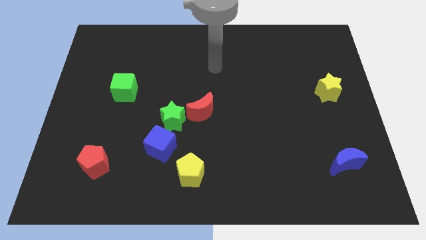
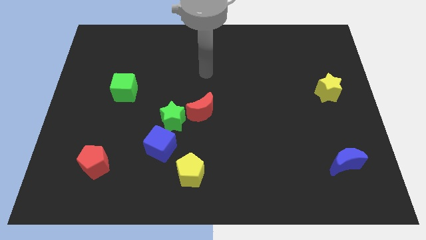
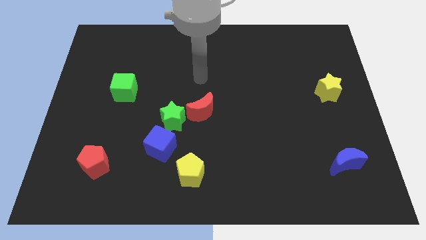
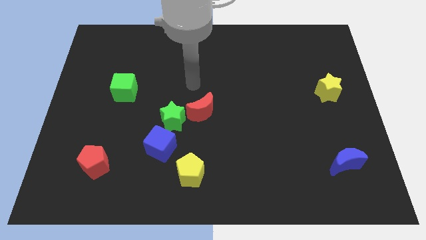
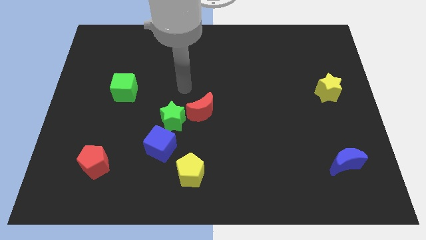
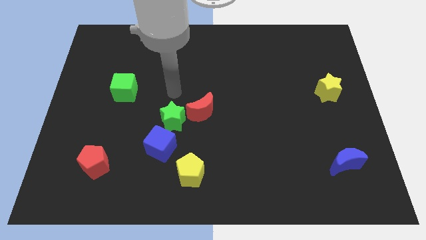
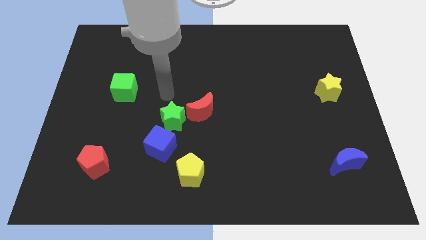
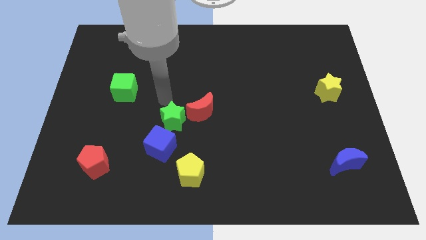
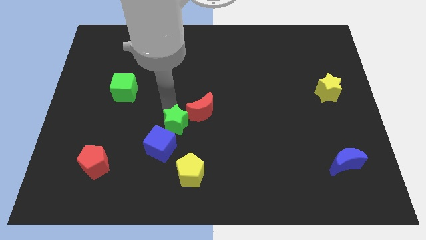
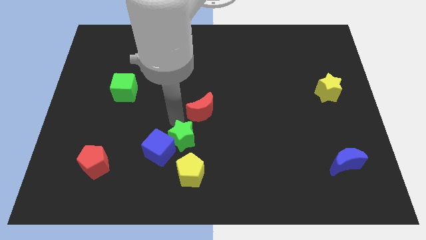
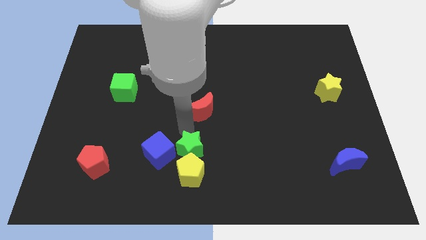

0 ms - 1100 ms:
pull the red moon apart from the green star

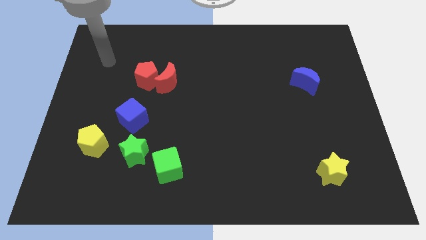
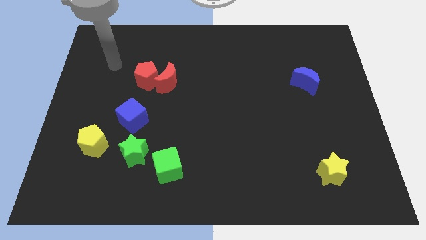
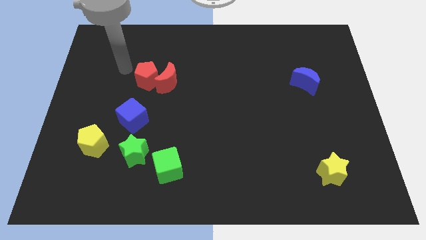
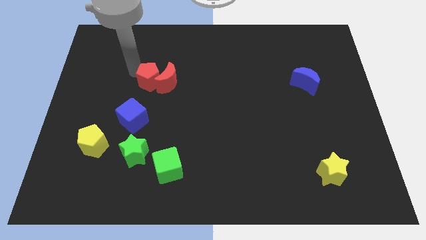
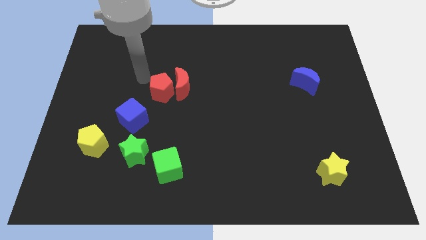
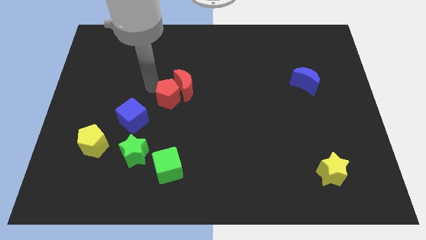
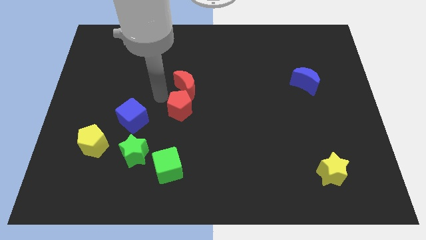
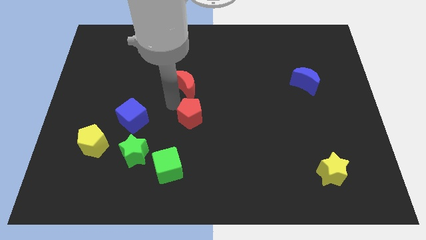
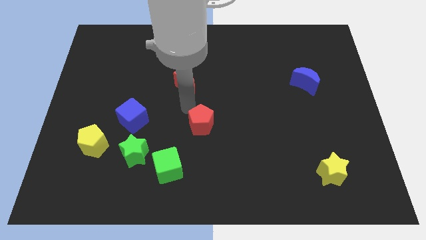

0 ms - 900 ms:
pull the red moon apart from the red pentagon

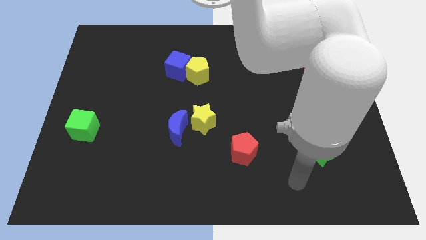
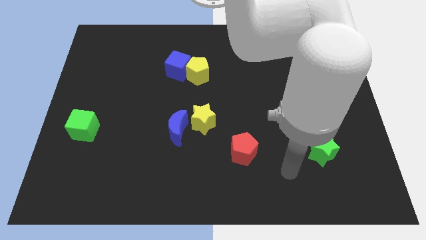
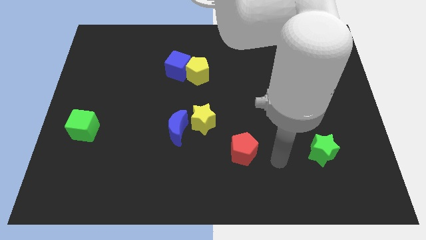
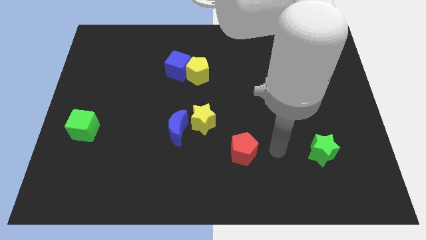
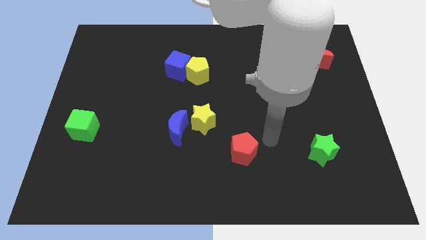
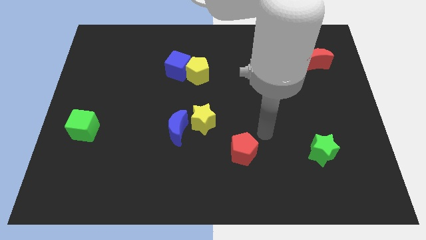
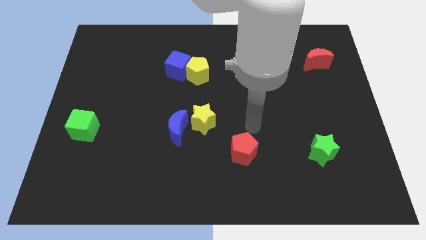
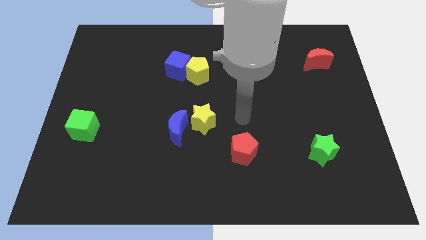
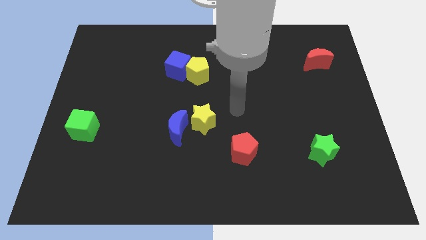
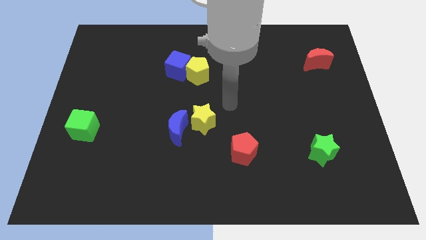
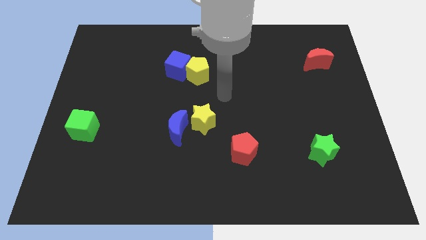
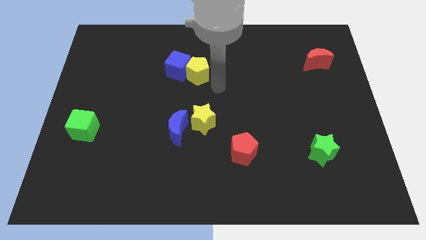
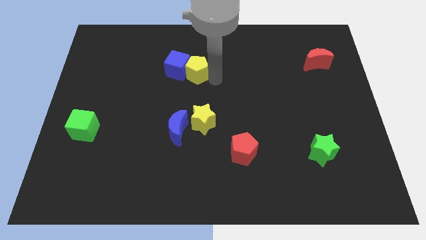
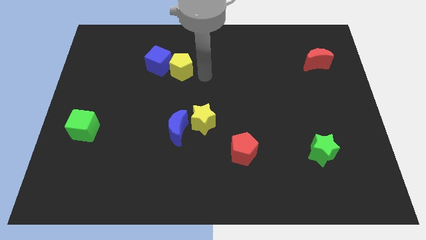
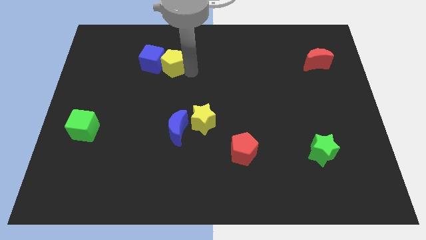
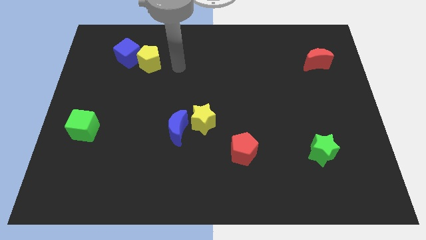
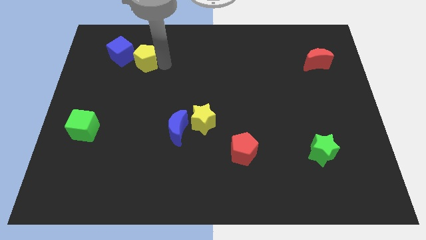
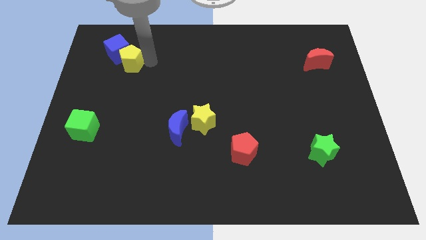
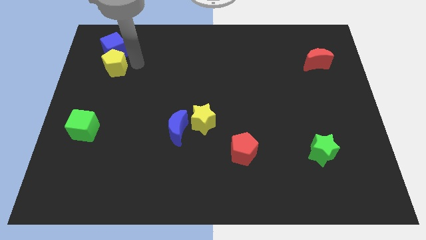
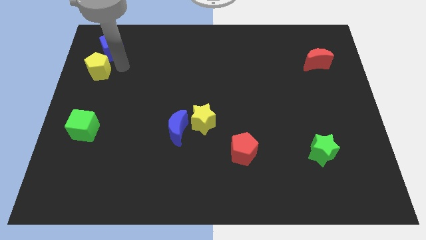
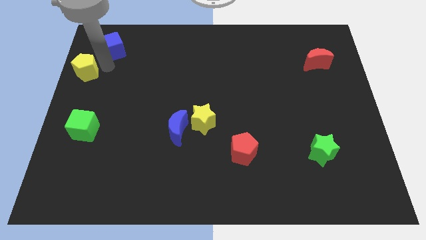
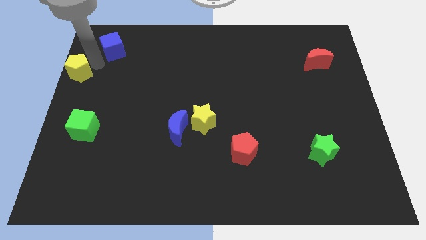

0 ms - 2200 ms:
move the blue cube away from the yellow pentagon

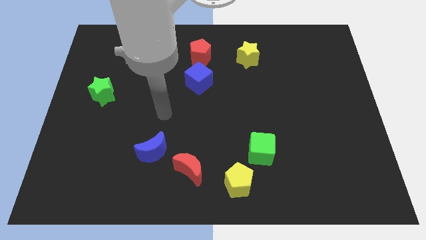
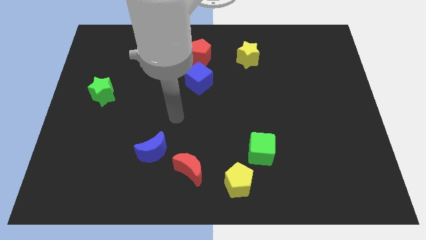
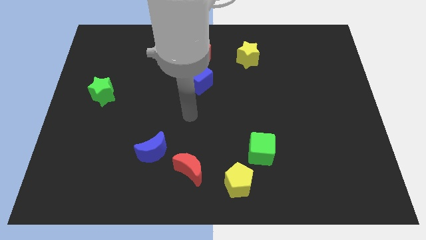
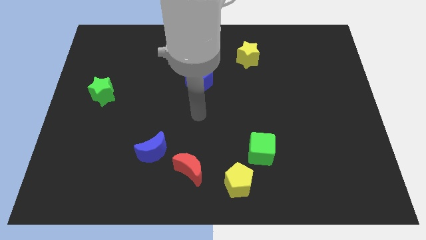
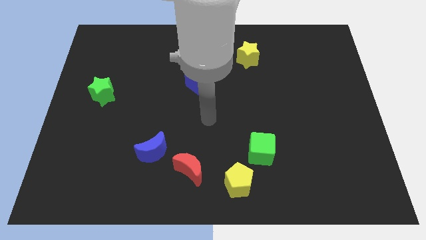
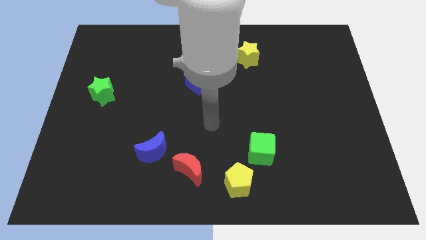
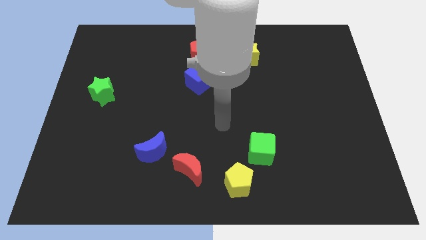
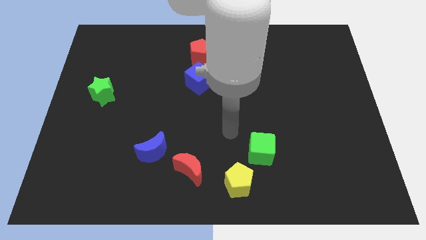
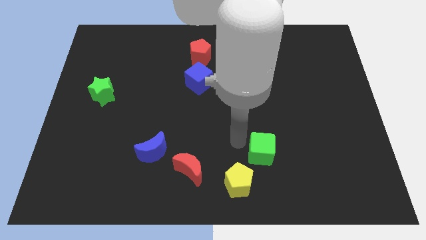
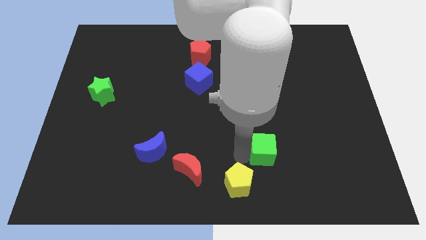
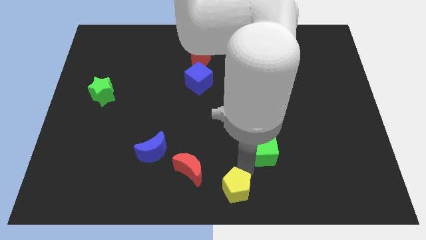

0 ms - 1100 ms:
separate the green cube from the yellow pentagon

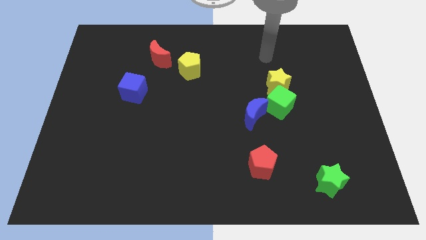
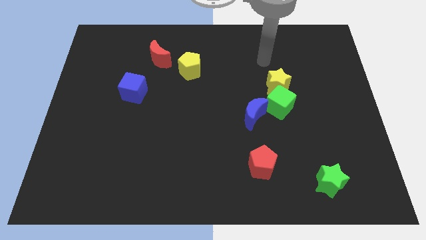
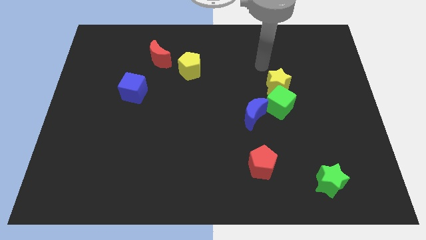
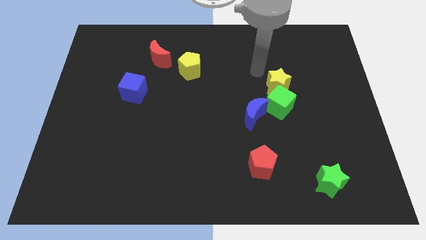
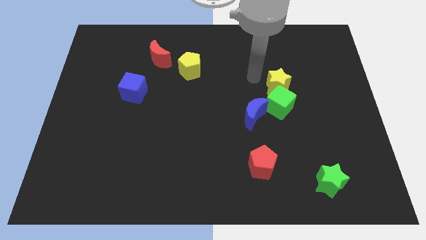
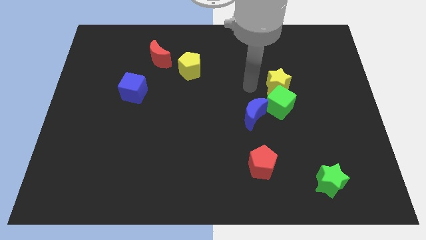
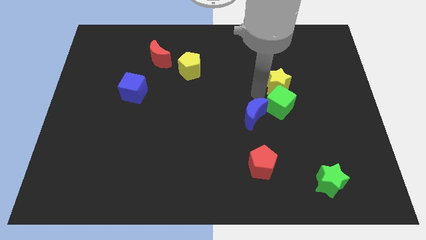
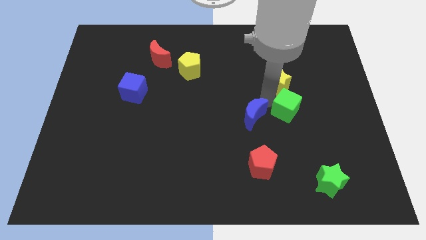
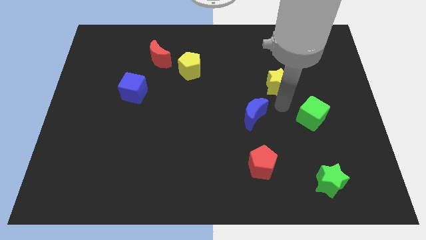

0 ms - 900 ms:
pull the yellow star apart from the green cube

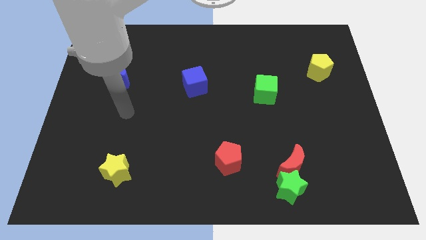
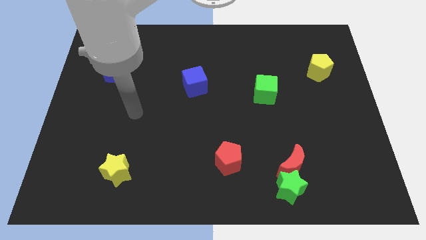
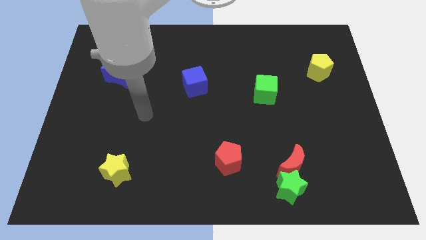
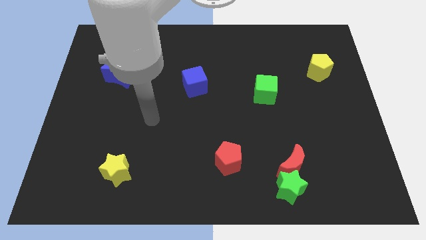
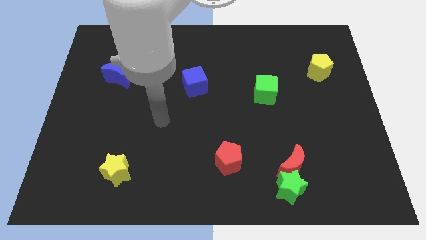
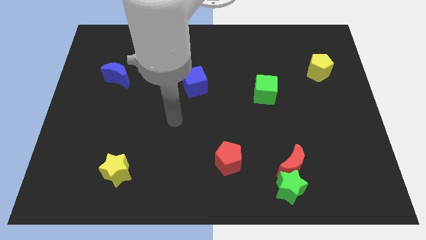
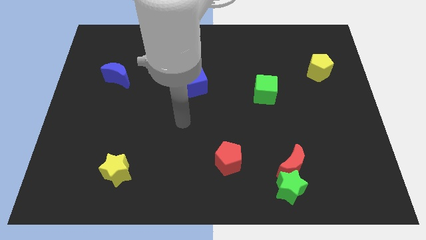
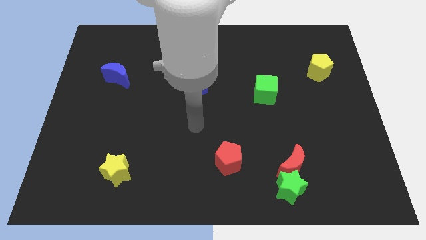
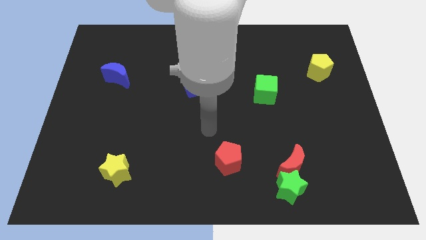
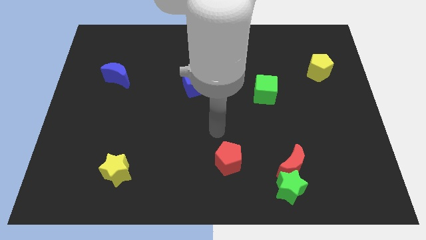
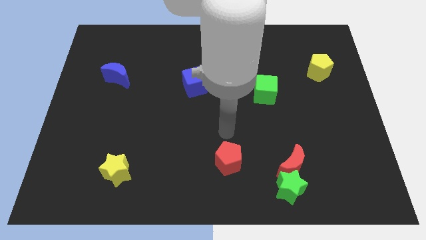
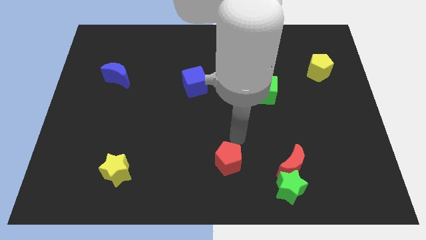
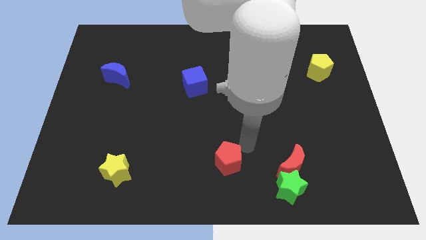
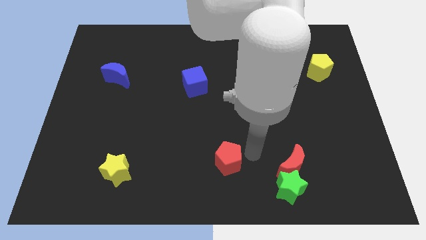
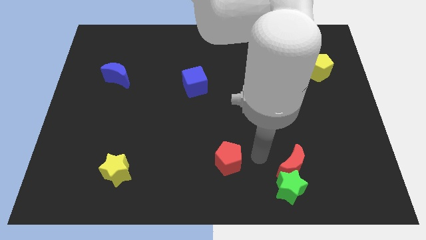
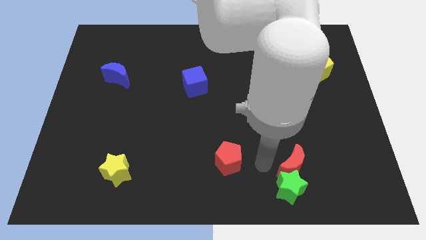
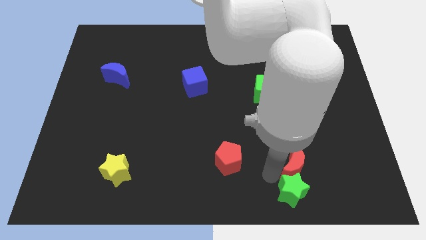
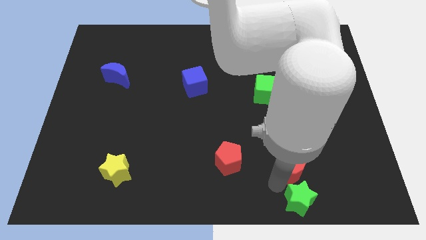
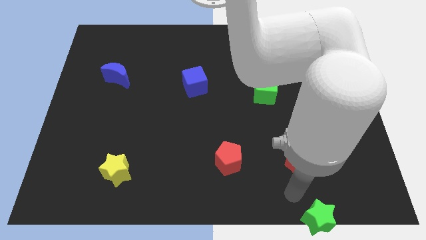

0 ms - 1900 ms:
separate the red moon from the green star

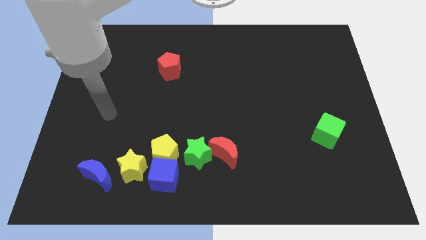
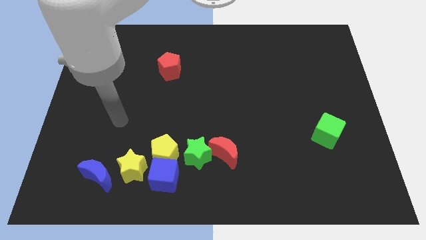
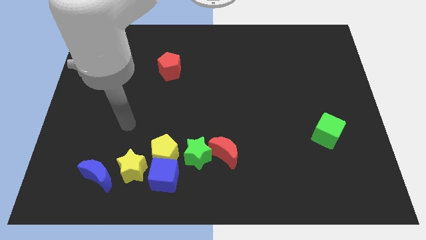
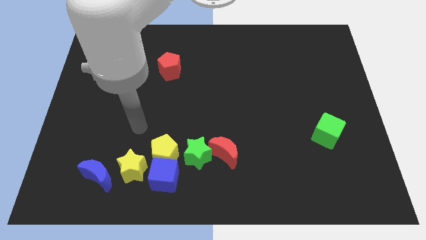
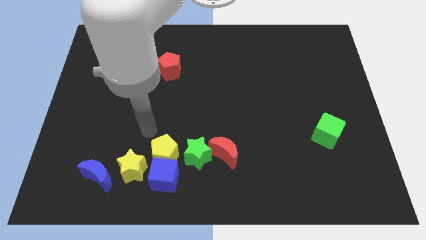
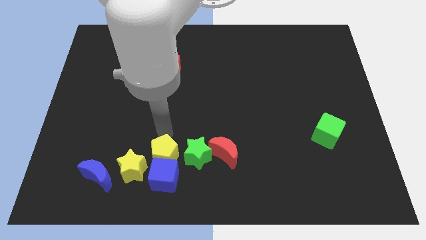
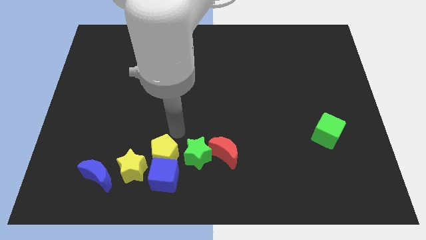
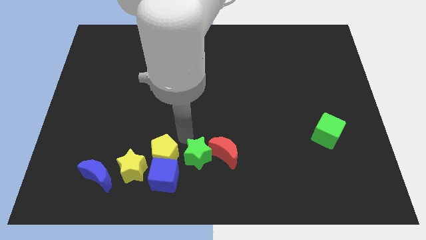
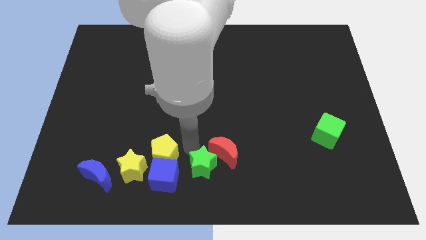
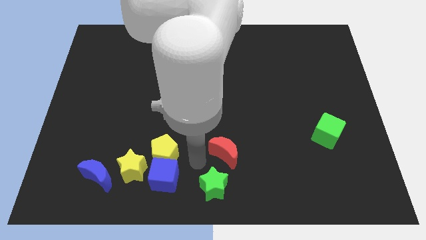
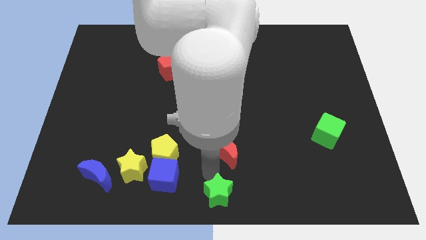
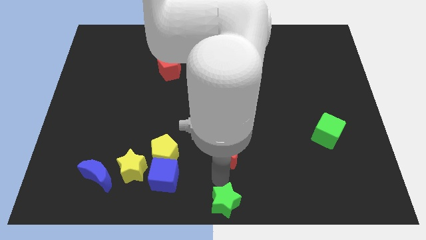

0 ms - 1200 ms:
move the red moon away from the green star
